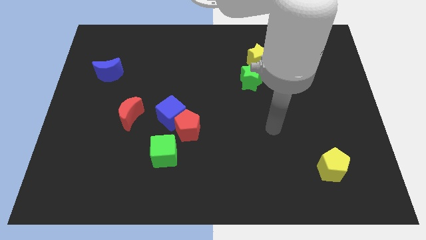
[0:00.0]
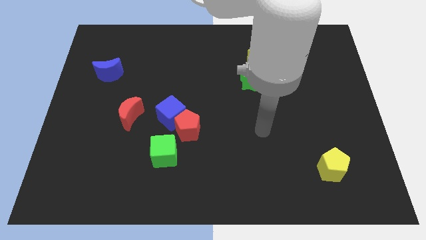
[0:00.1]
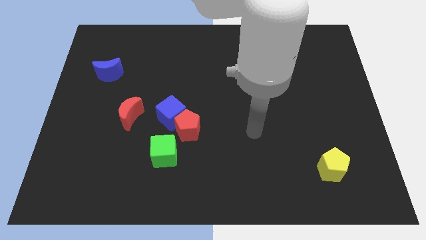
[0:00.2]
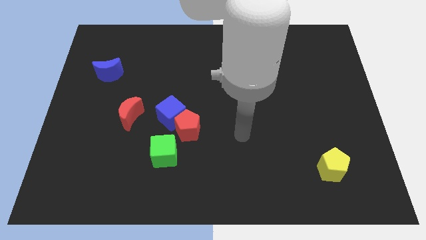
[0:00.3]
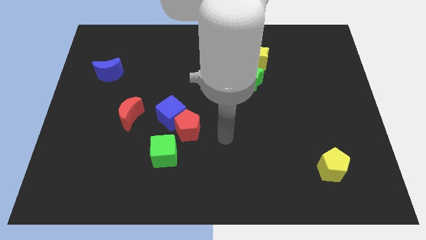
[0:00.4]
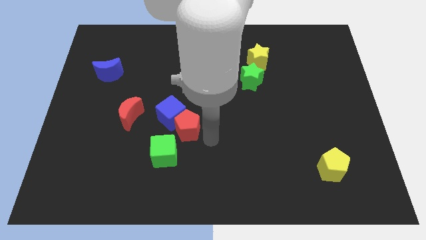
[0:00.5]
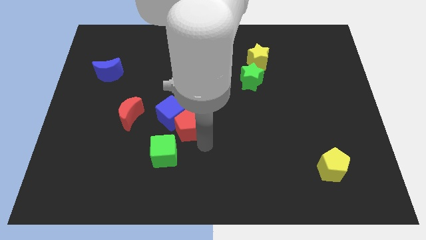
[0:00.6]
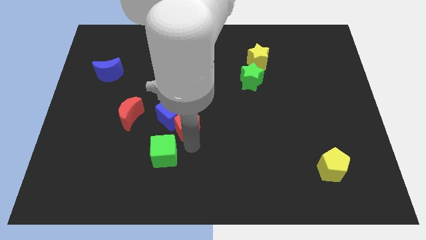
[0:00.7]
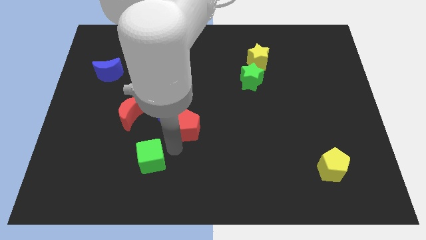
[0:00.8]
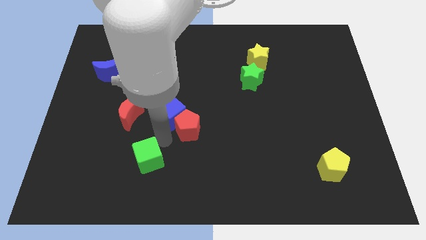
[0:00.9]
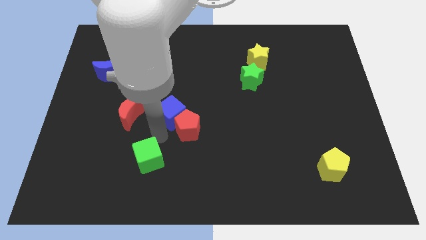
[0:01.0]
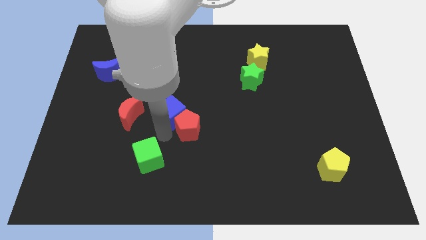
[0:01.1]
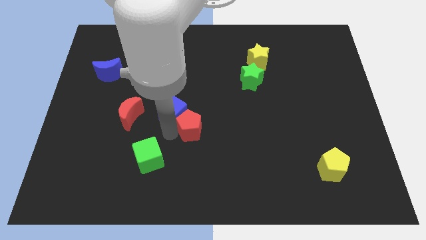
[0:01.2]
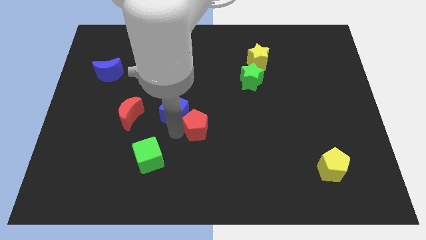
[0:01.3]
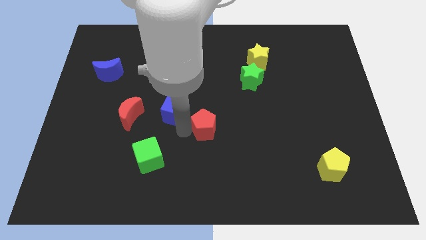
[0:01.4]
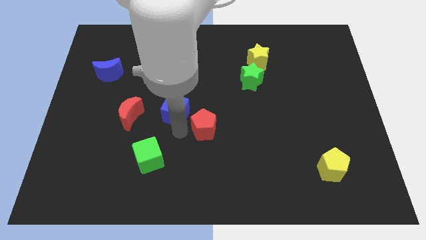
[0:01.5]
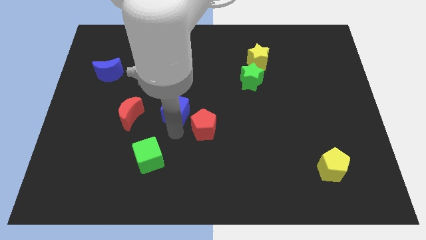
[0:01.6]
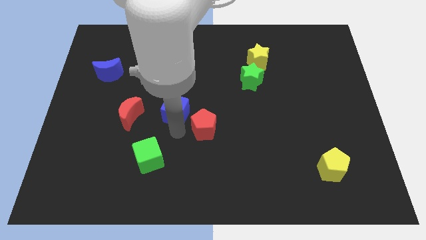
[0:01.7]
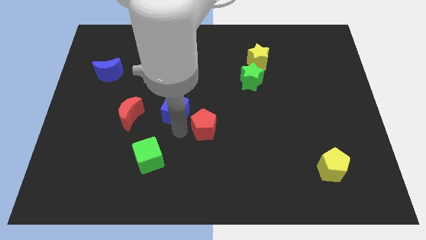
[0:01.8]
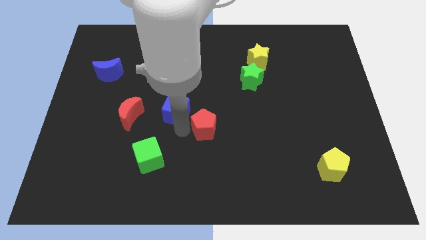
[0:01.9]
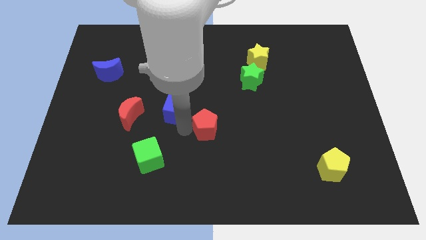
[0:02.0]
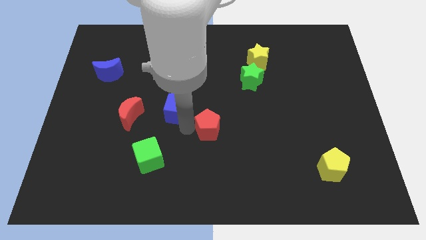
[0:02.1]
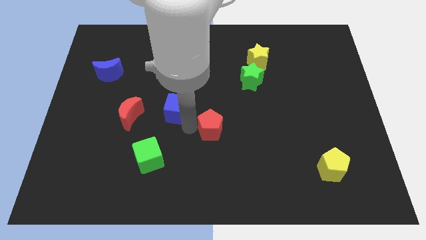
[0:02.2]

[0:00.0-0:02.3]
pull the red pentagon apart from the blue cube and green cube

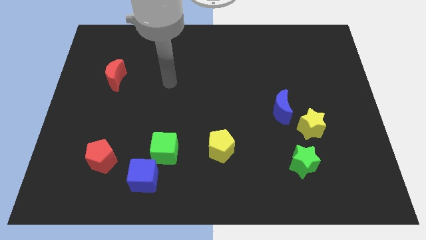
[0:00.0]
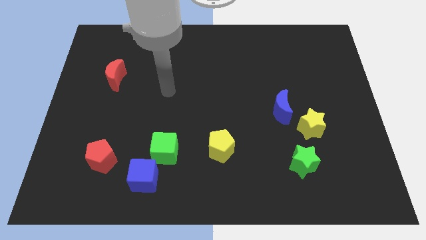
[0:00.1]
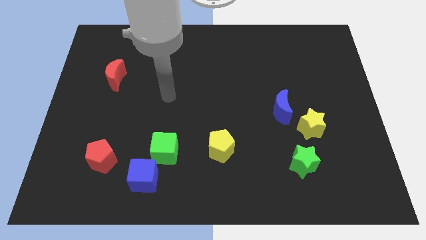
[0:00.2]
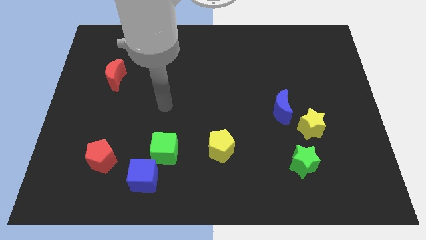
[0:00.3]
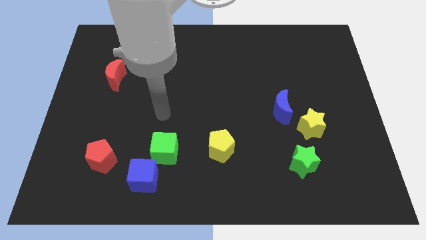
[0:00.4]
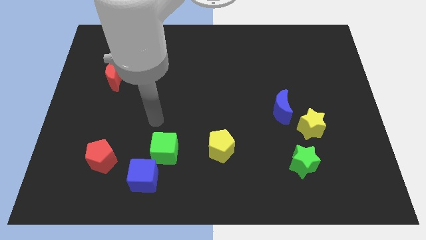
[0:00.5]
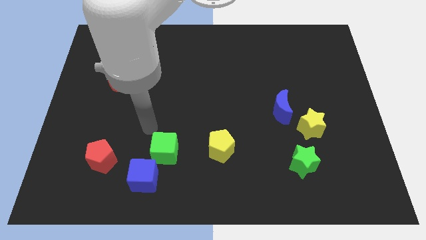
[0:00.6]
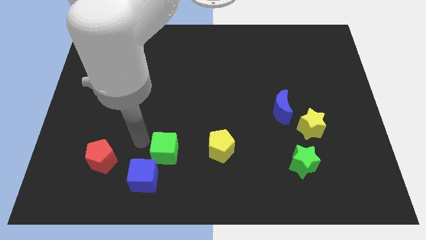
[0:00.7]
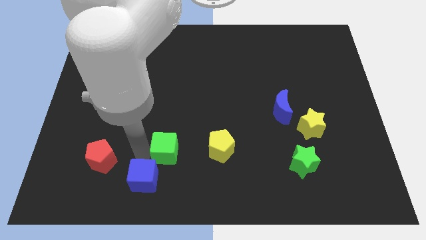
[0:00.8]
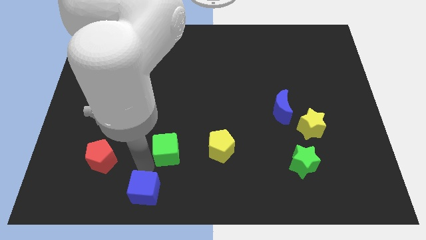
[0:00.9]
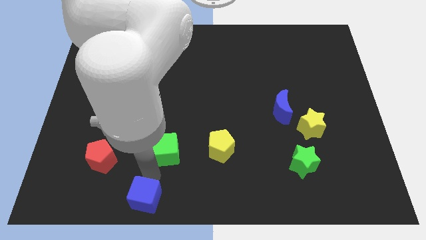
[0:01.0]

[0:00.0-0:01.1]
pull the green cube apart from the blue cube

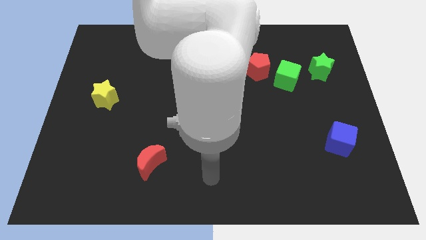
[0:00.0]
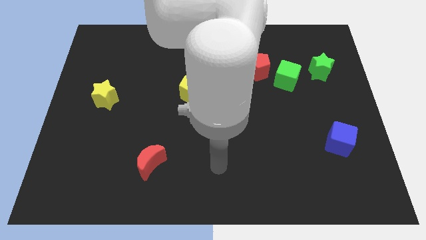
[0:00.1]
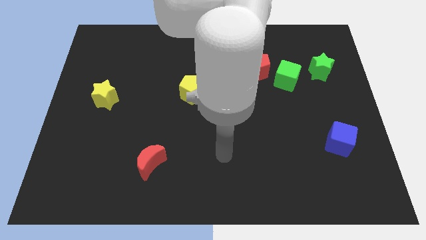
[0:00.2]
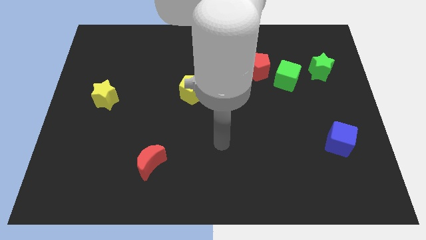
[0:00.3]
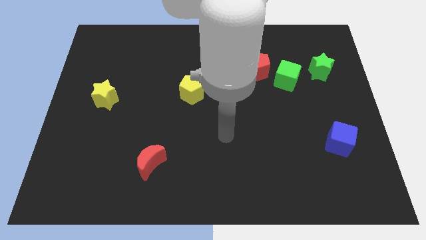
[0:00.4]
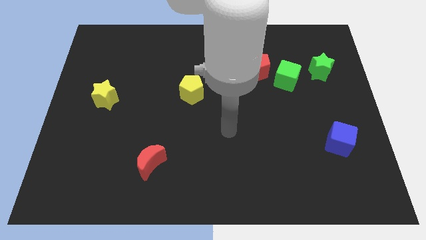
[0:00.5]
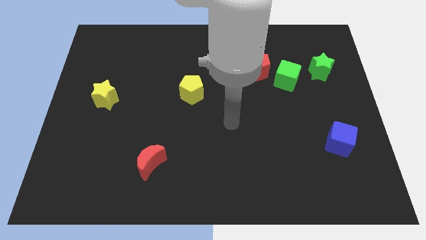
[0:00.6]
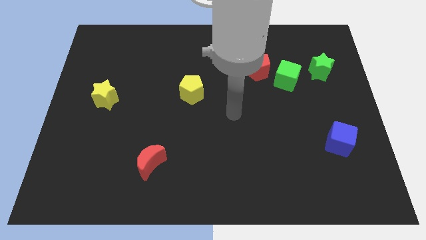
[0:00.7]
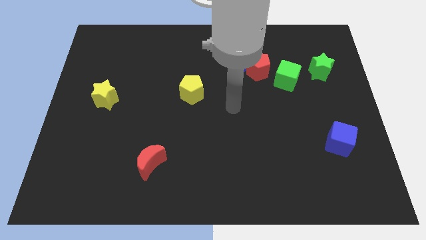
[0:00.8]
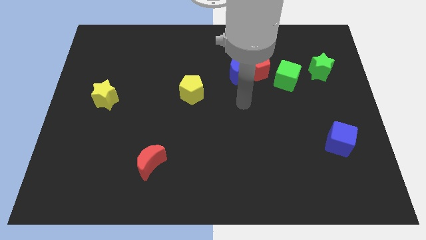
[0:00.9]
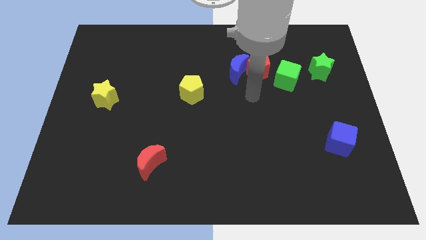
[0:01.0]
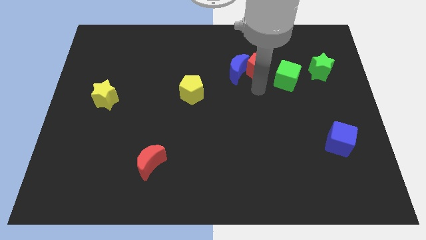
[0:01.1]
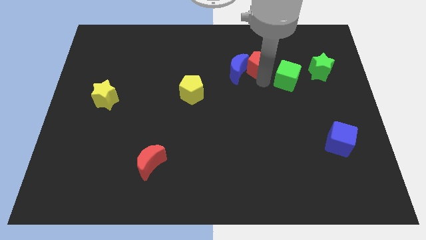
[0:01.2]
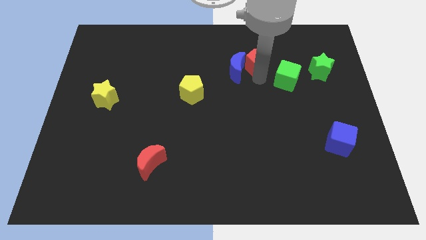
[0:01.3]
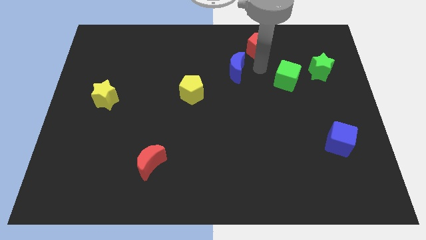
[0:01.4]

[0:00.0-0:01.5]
separate the blue moon from the red pentagon

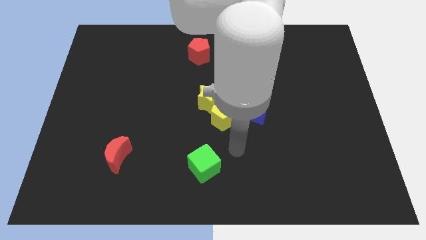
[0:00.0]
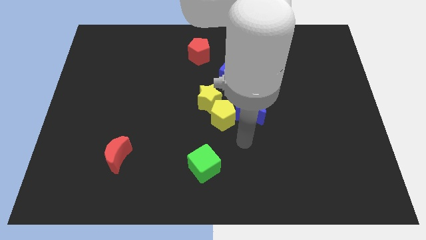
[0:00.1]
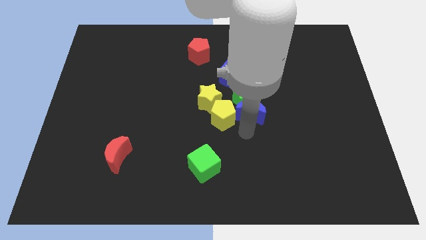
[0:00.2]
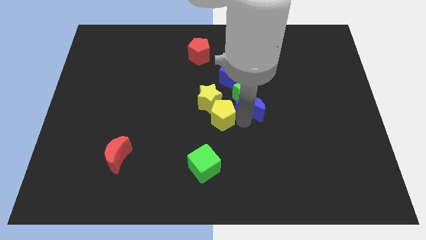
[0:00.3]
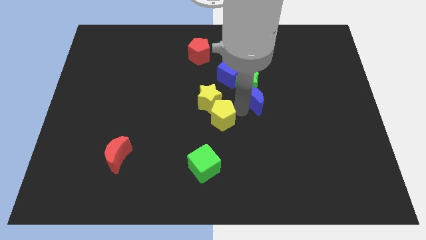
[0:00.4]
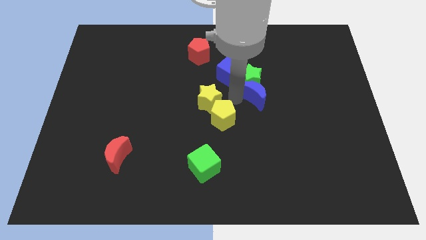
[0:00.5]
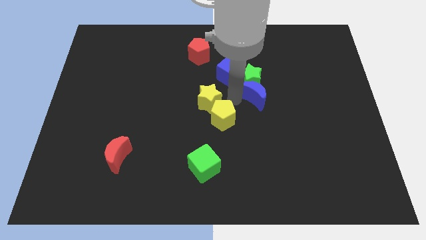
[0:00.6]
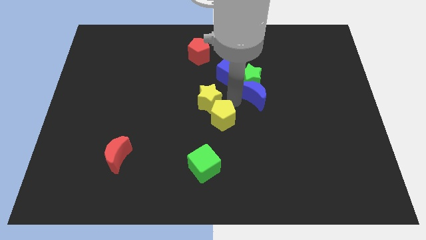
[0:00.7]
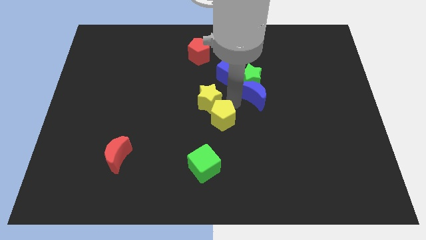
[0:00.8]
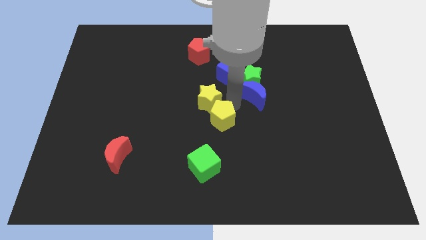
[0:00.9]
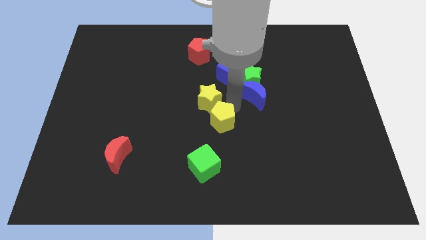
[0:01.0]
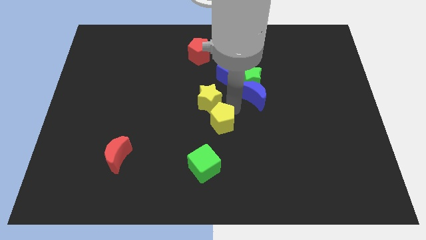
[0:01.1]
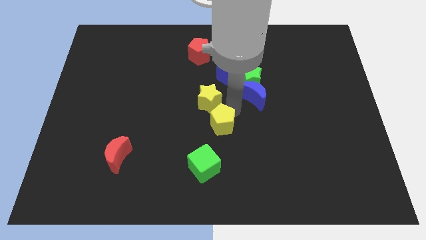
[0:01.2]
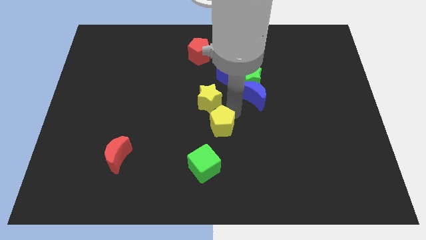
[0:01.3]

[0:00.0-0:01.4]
pull the yellow pentagon apart from the clump

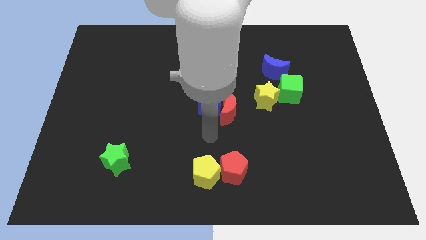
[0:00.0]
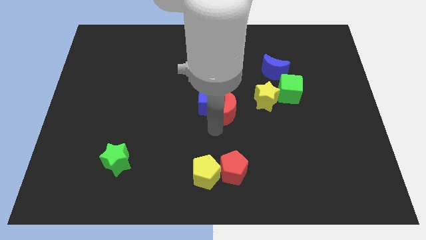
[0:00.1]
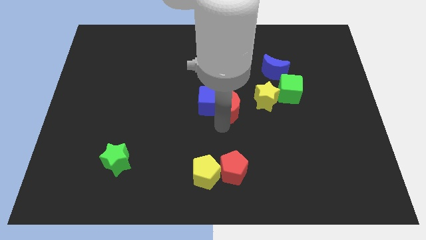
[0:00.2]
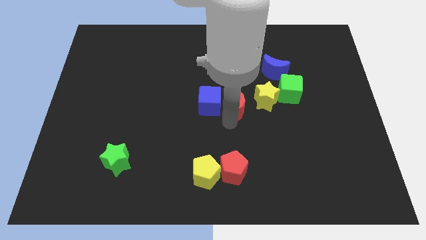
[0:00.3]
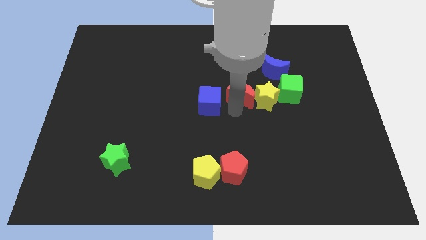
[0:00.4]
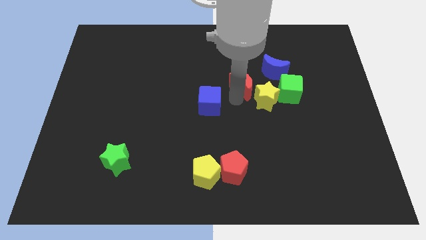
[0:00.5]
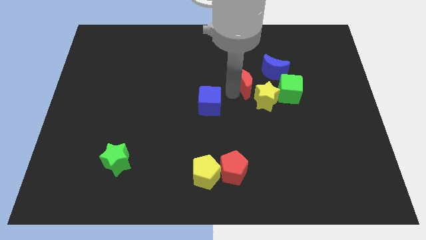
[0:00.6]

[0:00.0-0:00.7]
separate the blue cube from the red moon

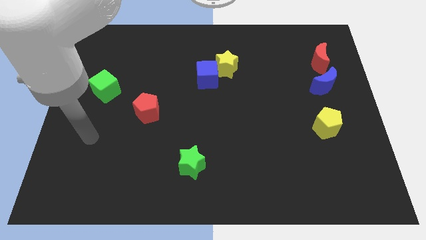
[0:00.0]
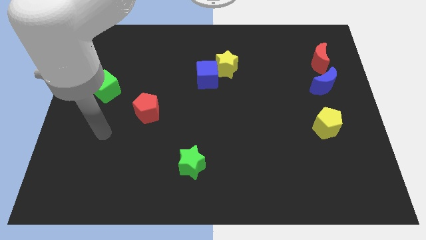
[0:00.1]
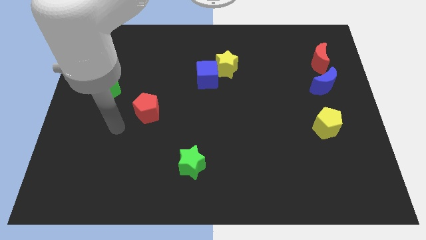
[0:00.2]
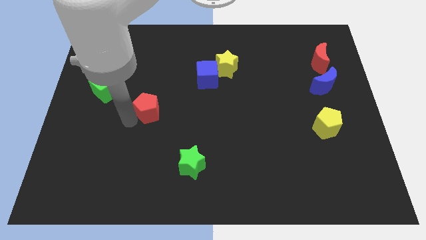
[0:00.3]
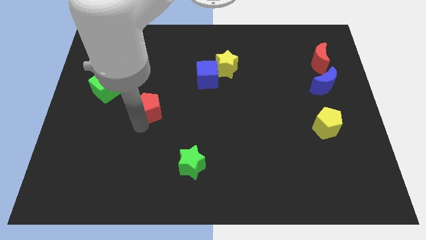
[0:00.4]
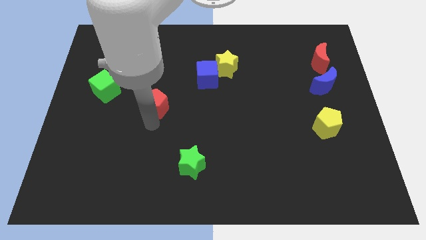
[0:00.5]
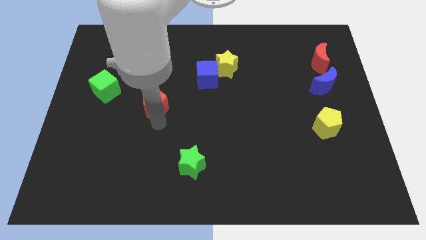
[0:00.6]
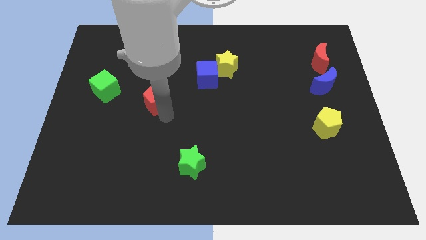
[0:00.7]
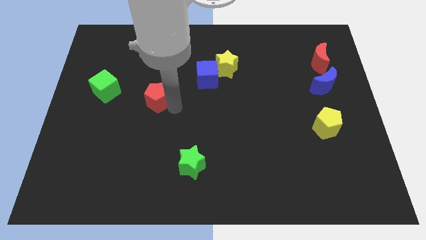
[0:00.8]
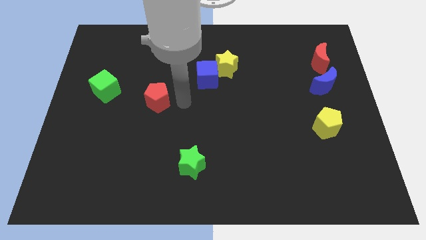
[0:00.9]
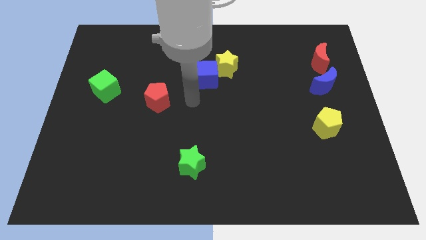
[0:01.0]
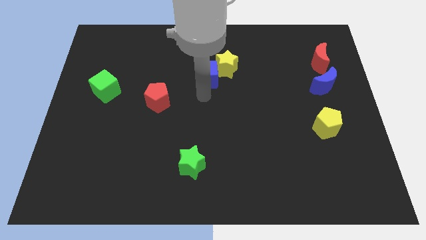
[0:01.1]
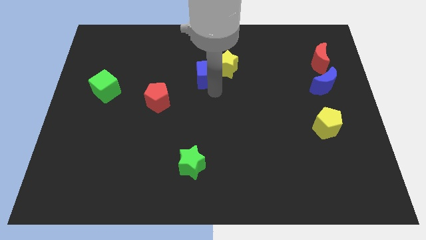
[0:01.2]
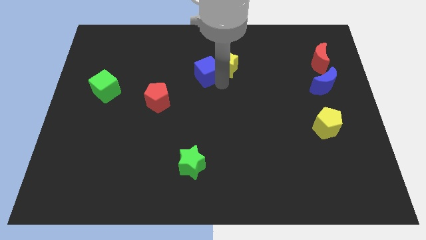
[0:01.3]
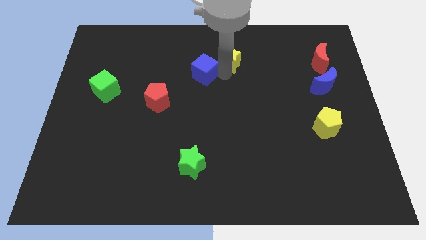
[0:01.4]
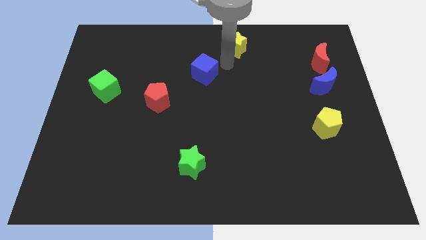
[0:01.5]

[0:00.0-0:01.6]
pull the blue cube apart from the yellow star

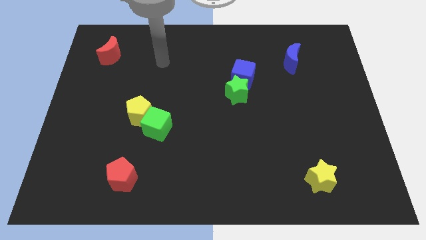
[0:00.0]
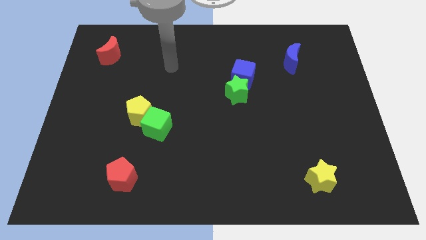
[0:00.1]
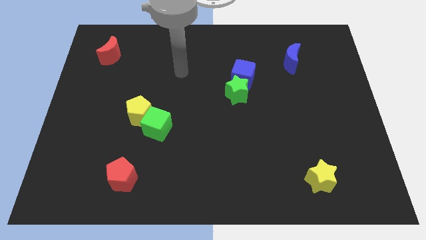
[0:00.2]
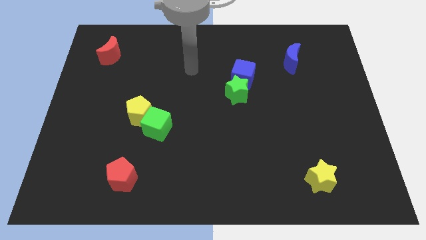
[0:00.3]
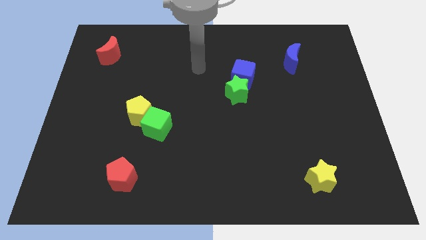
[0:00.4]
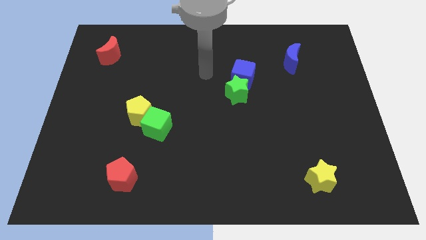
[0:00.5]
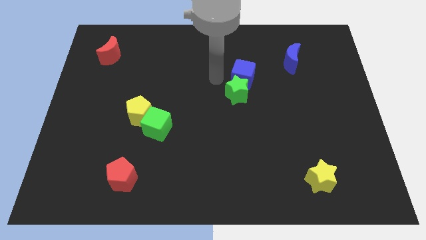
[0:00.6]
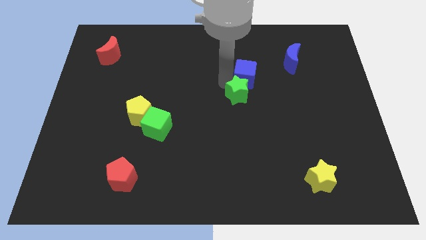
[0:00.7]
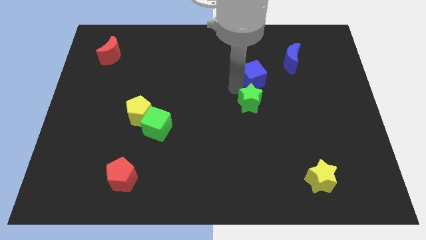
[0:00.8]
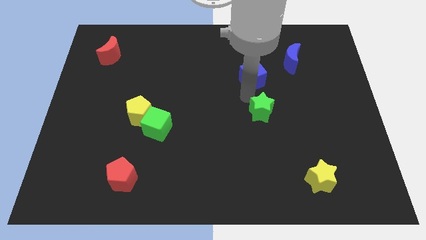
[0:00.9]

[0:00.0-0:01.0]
separate the blue cube from the green star
